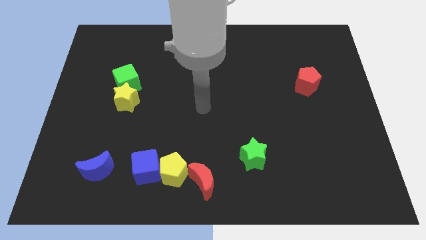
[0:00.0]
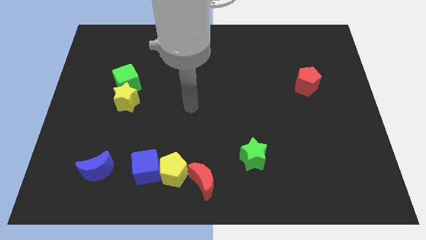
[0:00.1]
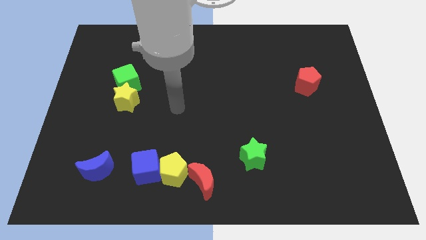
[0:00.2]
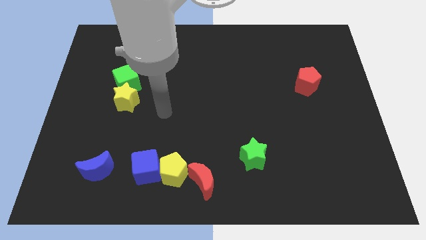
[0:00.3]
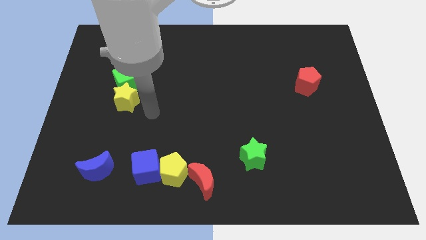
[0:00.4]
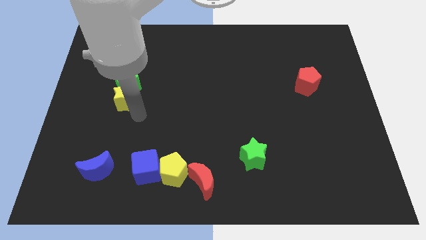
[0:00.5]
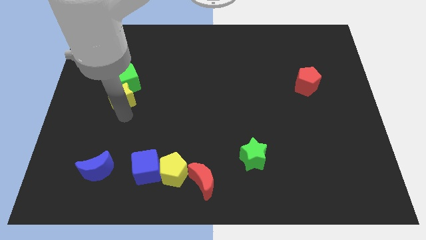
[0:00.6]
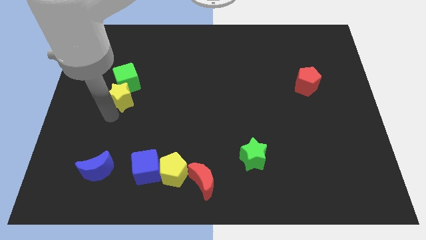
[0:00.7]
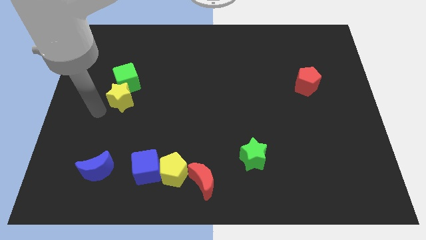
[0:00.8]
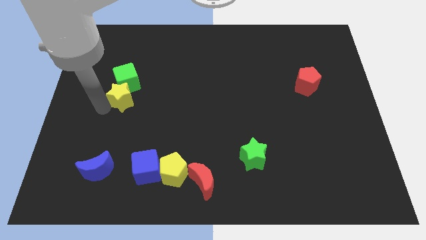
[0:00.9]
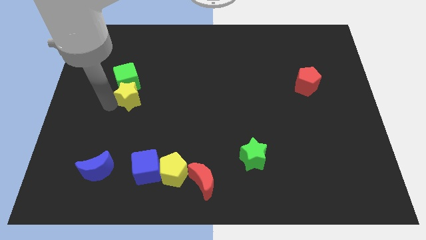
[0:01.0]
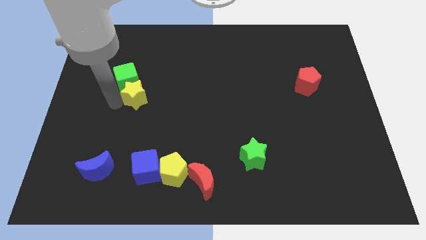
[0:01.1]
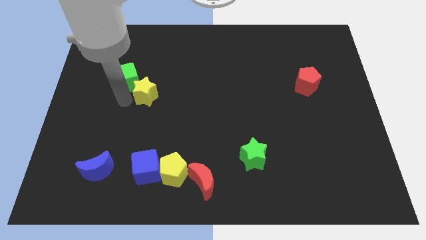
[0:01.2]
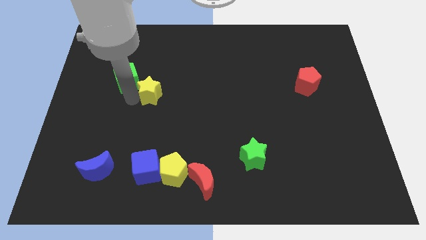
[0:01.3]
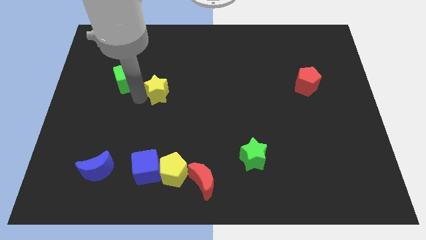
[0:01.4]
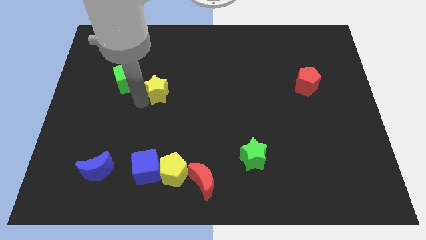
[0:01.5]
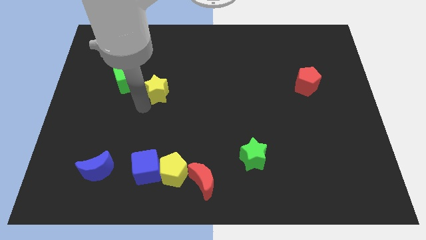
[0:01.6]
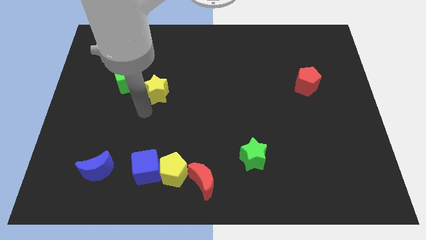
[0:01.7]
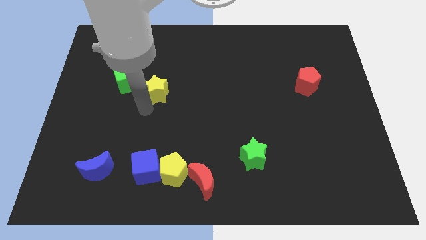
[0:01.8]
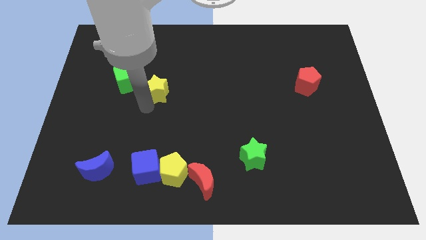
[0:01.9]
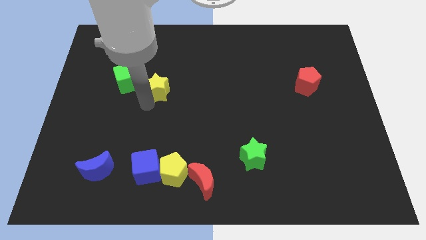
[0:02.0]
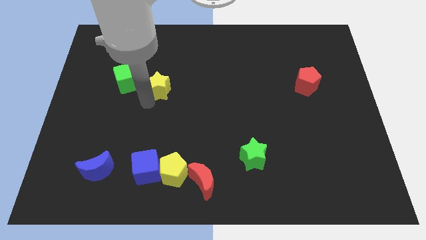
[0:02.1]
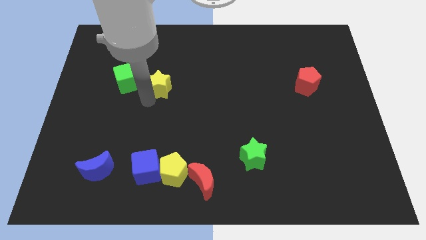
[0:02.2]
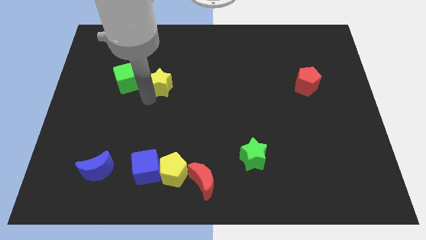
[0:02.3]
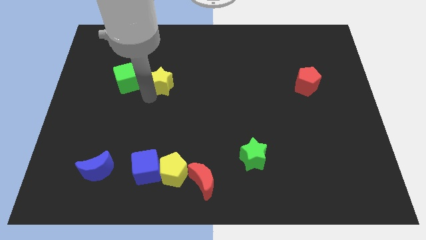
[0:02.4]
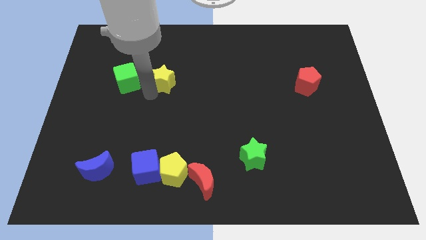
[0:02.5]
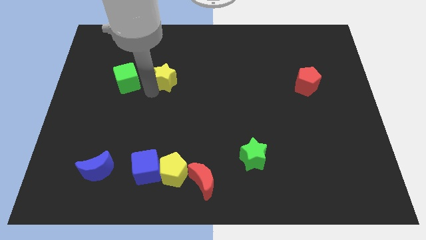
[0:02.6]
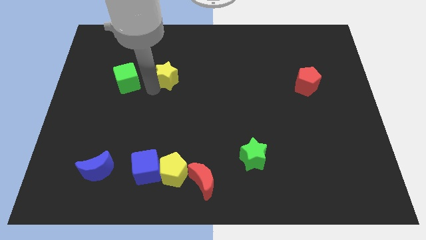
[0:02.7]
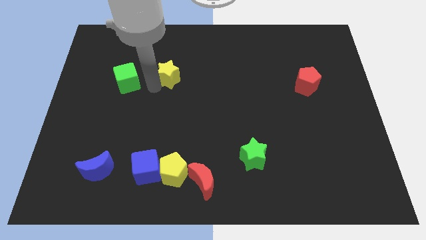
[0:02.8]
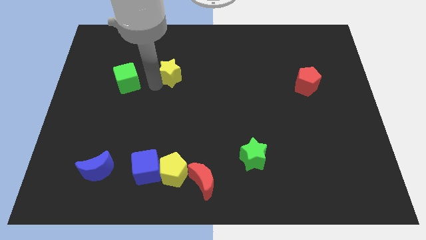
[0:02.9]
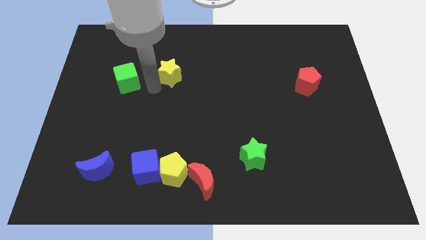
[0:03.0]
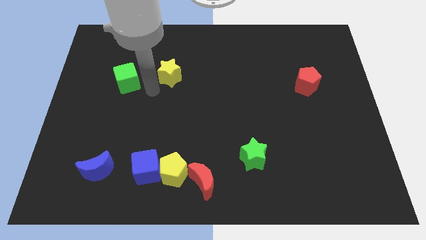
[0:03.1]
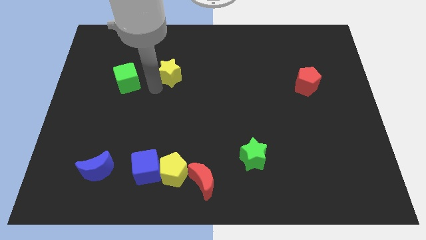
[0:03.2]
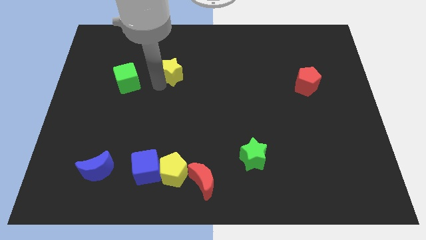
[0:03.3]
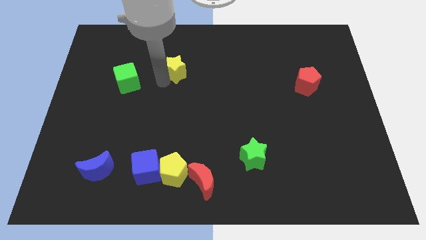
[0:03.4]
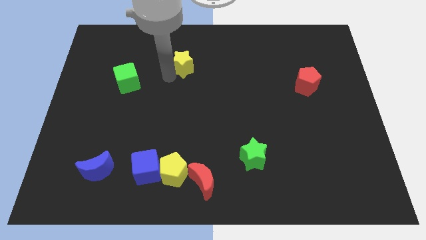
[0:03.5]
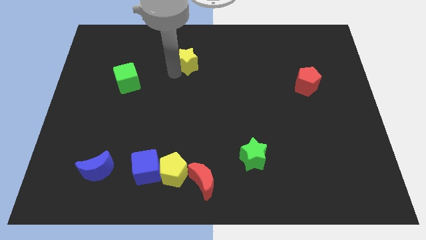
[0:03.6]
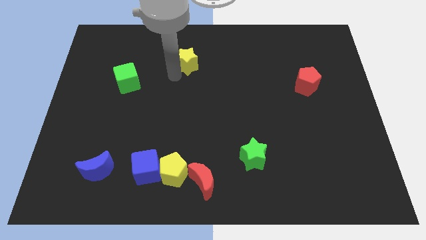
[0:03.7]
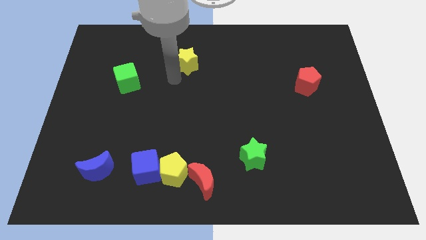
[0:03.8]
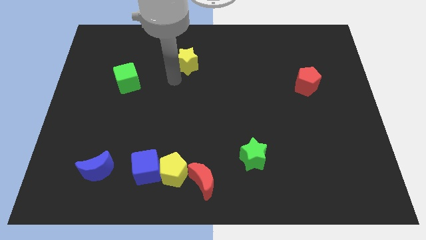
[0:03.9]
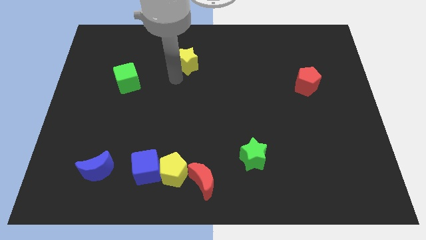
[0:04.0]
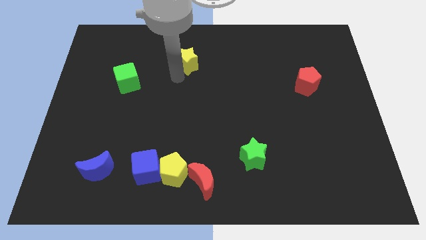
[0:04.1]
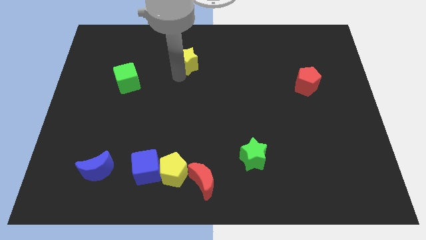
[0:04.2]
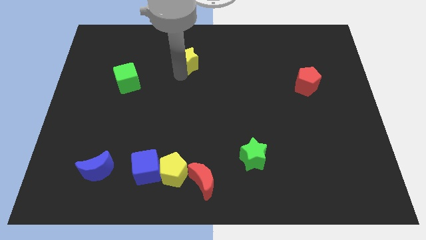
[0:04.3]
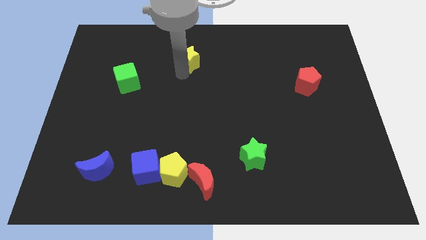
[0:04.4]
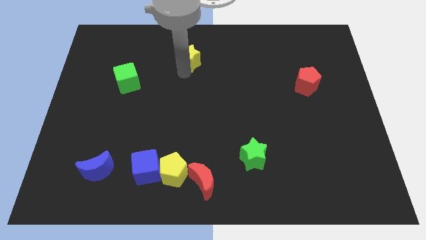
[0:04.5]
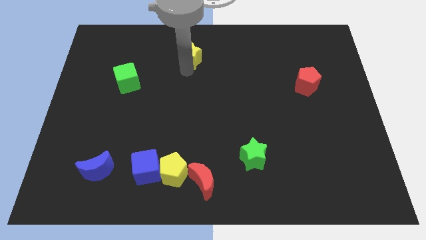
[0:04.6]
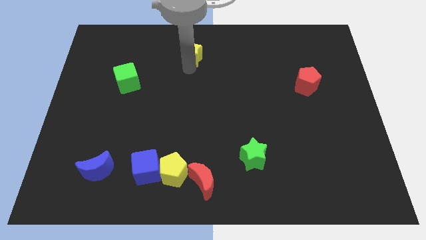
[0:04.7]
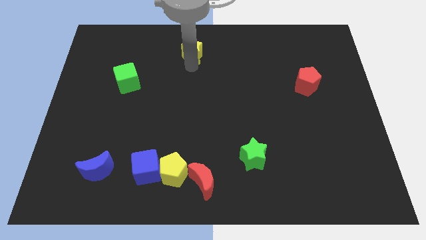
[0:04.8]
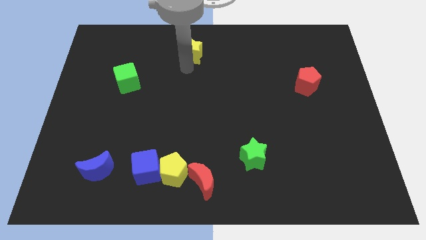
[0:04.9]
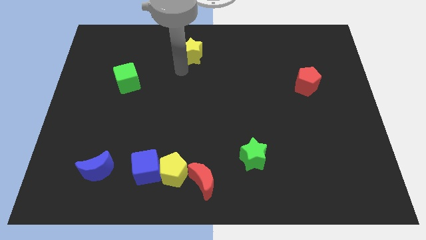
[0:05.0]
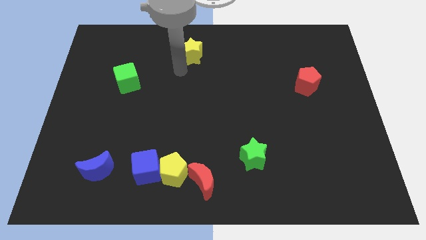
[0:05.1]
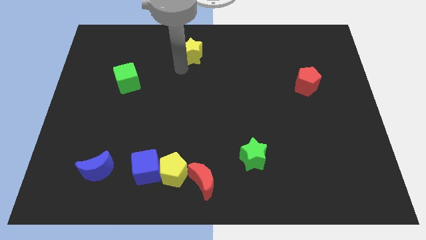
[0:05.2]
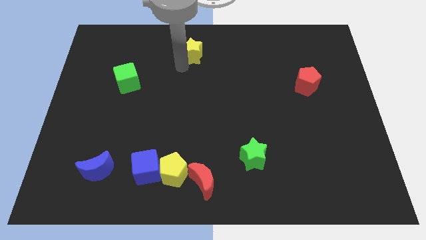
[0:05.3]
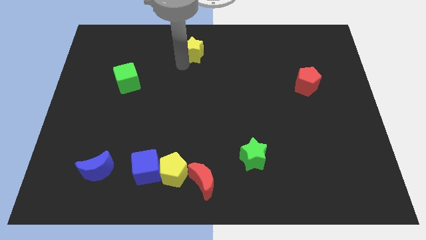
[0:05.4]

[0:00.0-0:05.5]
slide the yellow star to the top side
